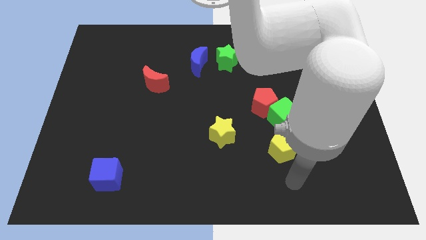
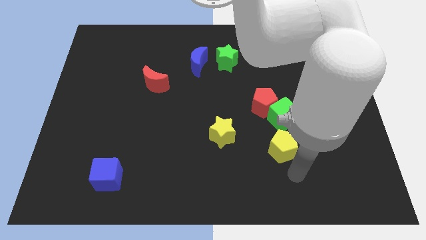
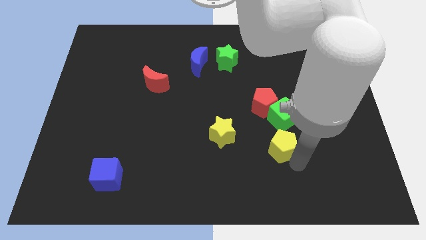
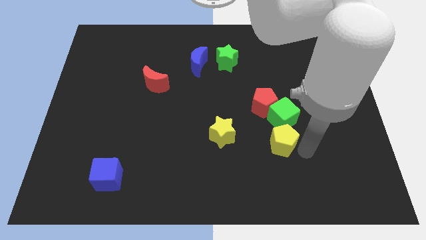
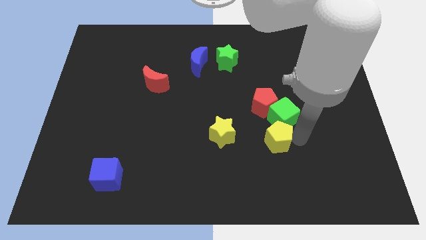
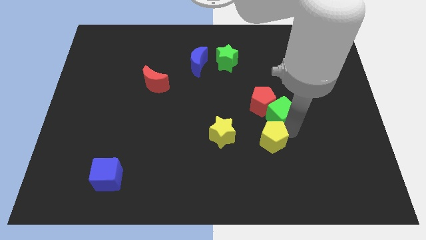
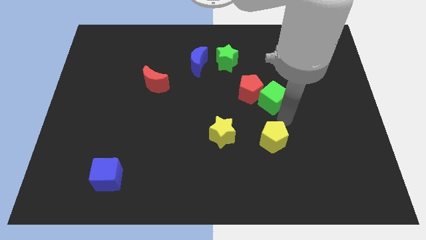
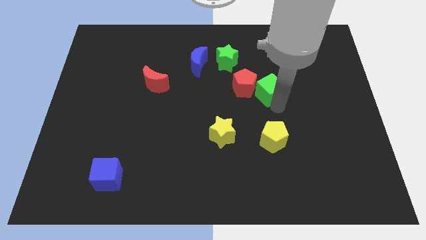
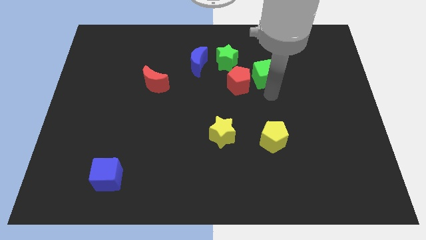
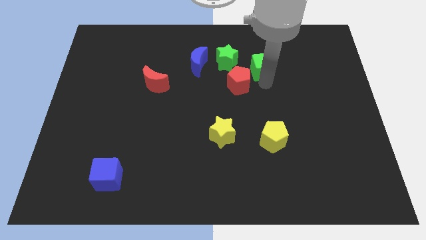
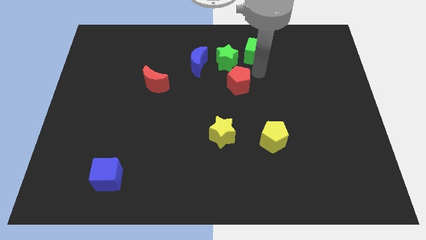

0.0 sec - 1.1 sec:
move the red pentagon away from the green cube

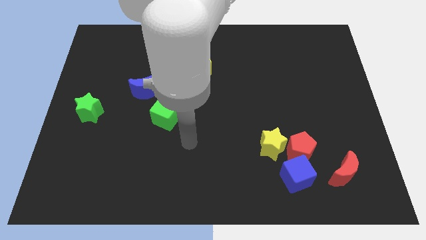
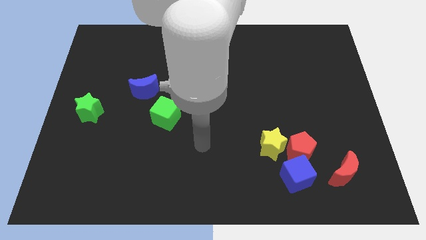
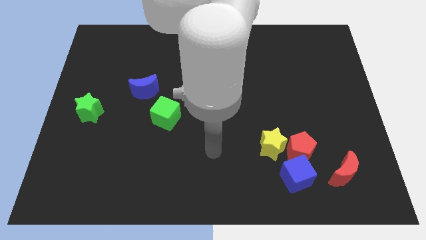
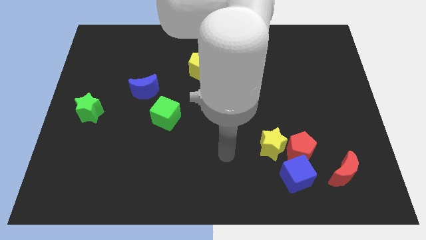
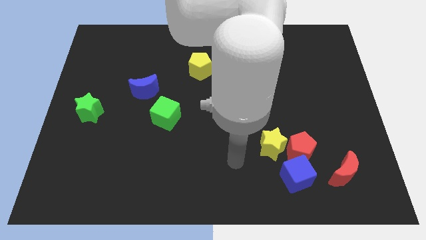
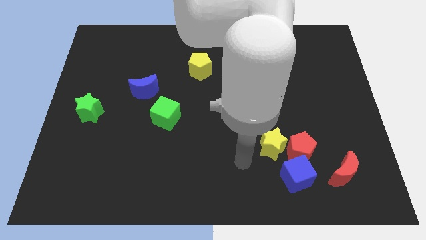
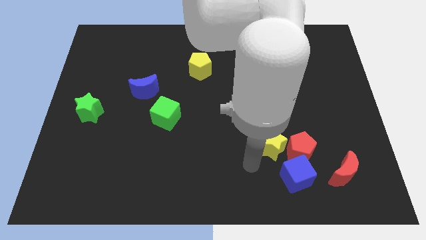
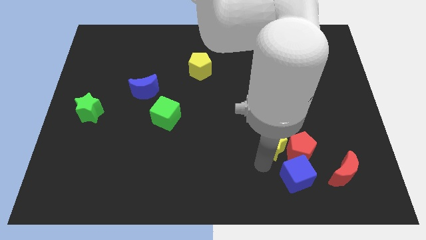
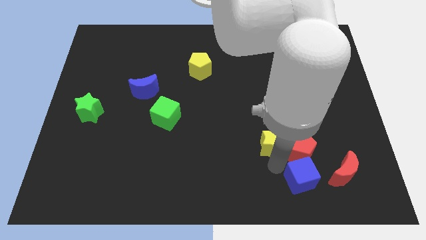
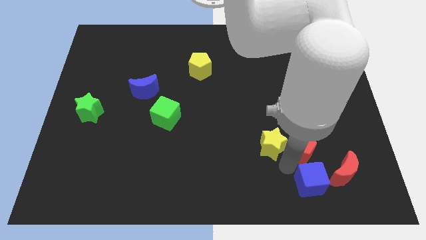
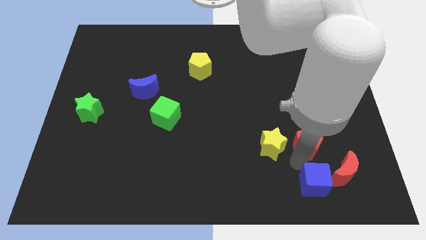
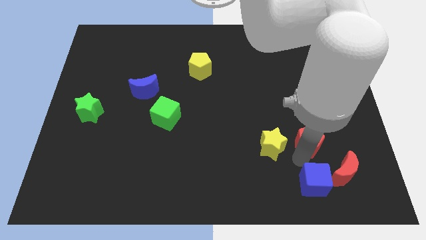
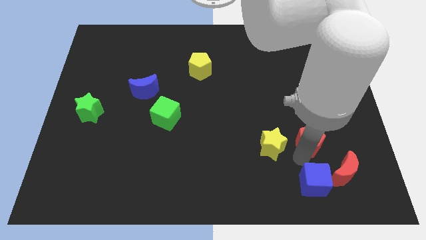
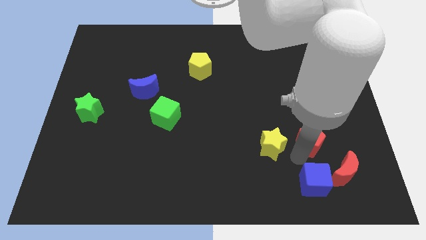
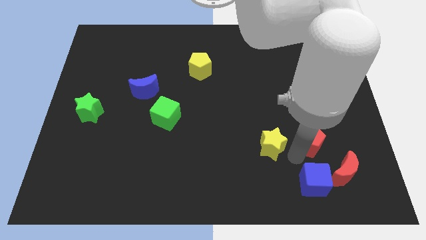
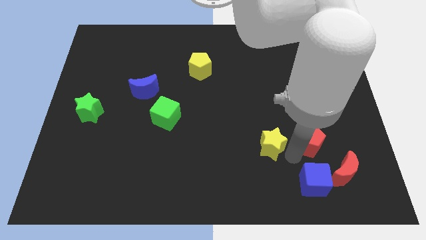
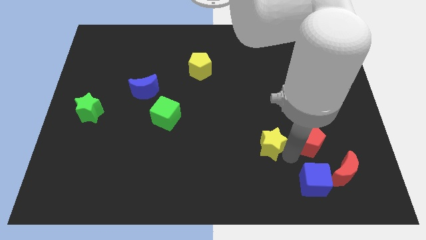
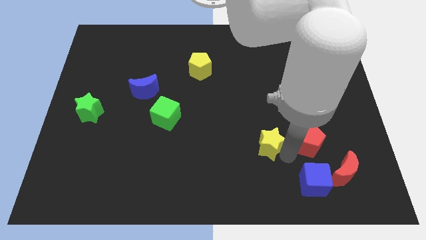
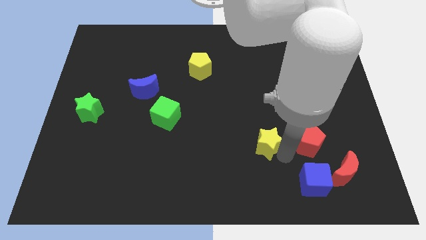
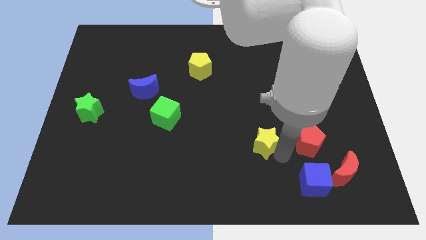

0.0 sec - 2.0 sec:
pull the yellow star apart from the red pentagon and blue cube

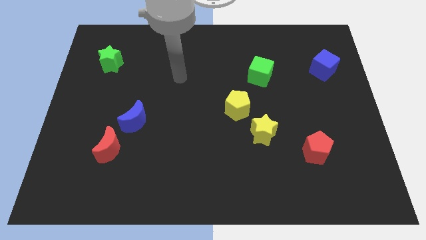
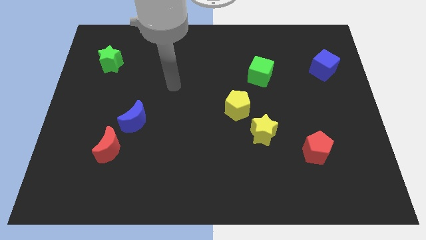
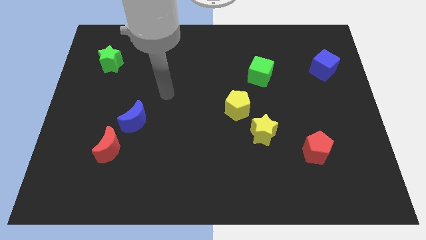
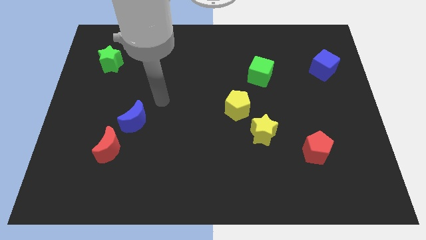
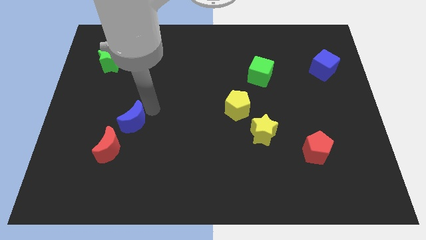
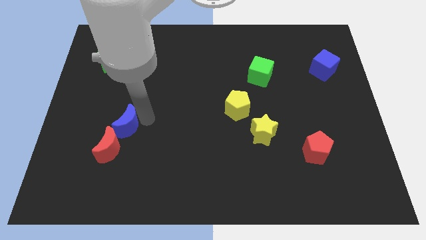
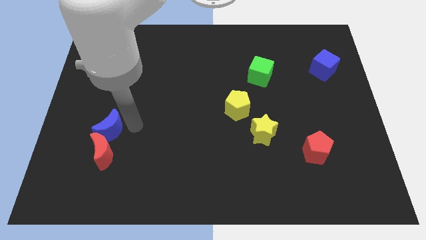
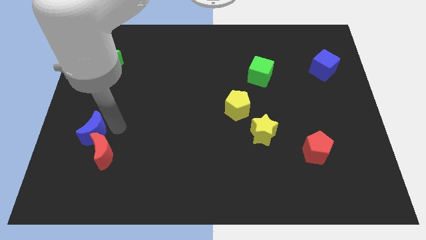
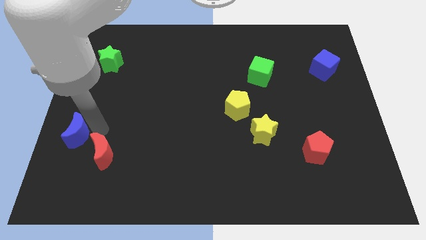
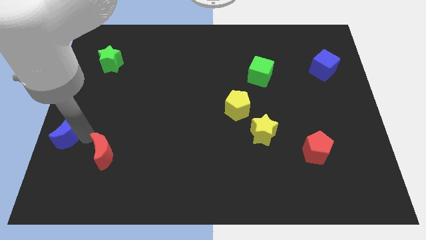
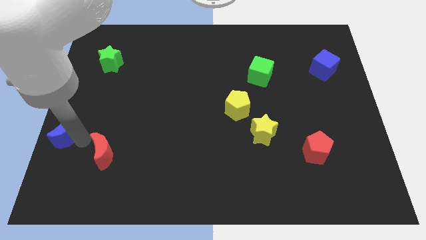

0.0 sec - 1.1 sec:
separate the red moon from the blue moon

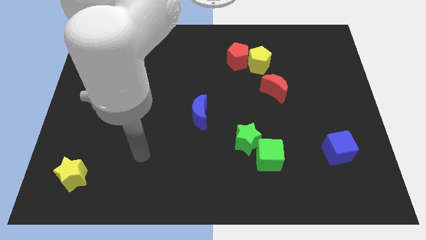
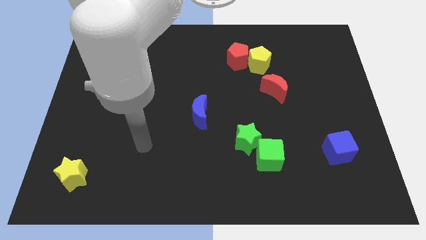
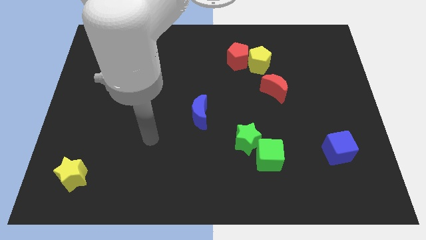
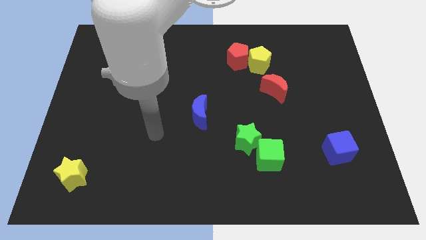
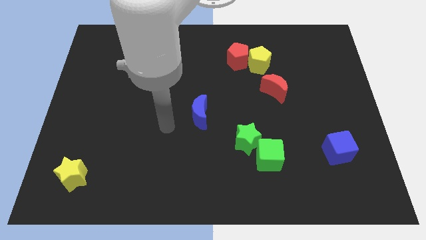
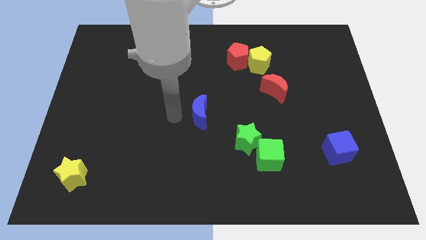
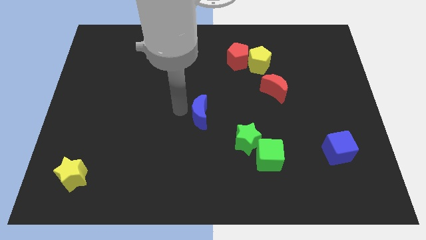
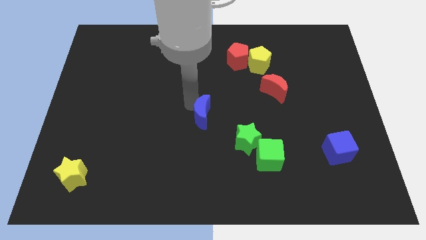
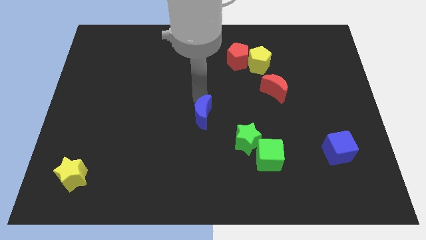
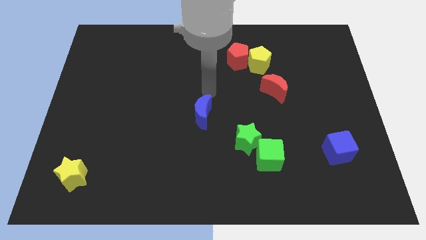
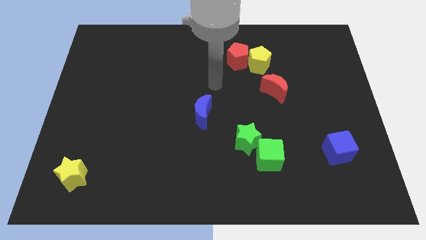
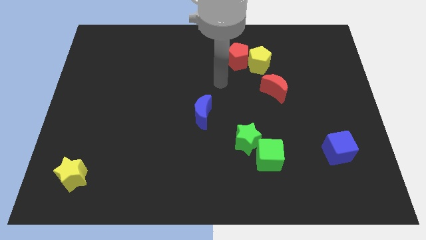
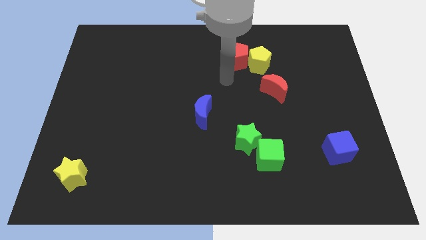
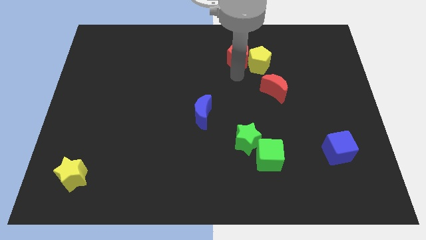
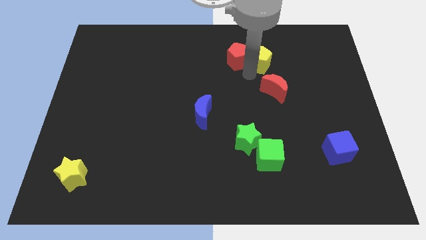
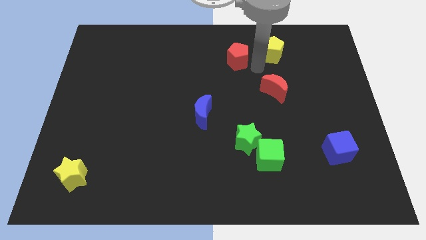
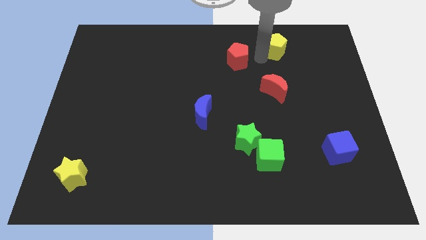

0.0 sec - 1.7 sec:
move the red pentagon away from the yellow pentagon

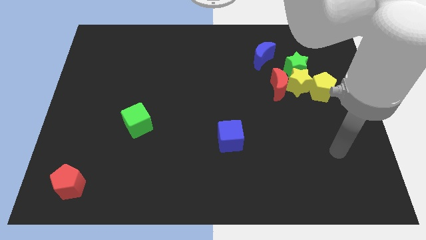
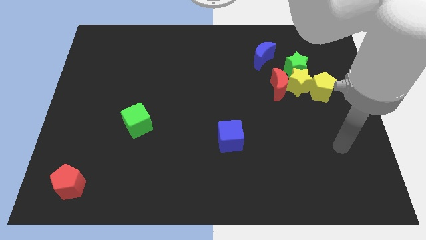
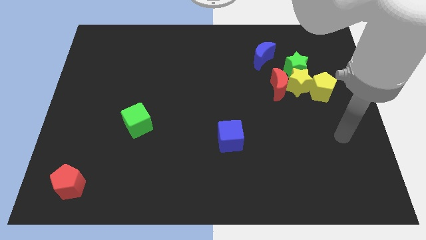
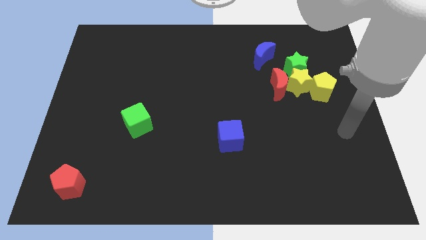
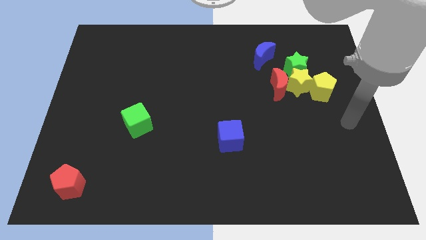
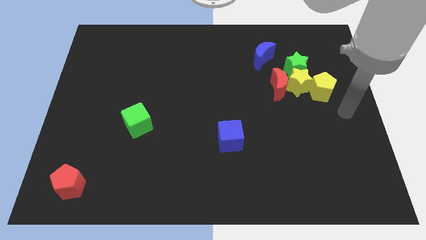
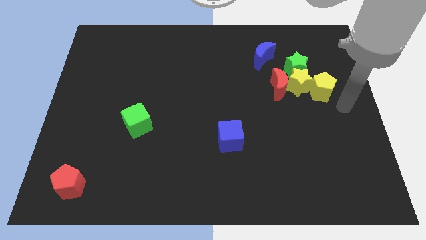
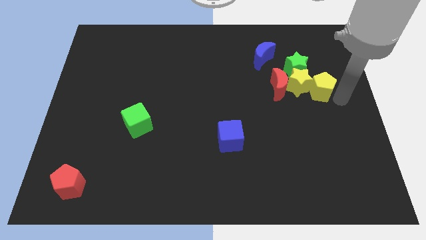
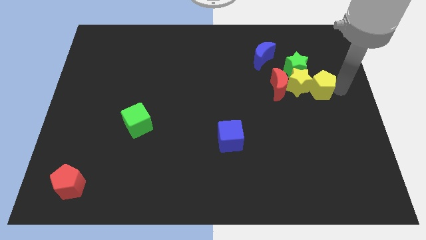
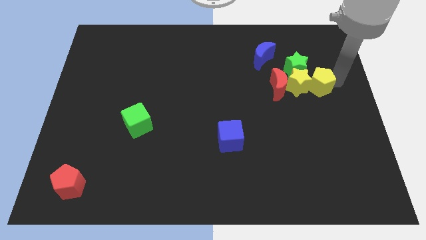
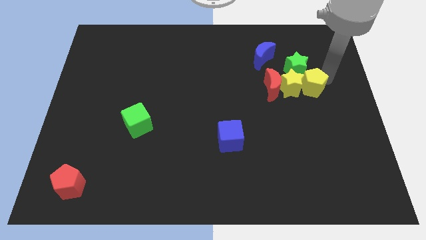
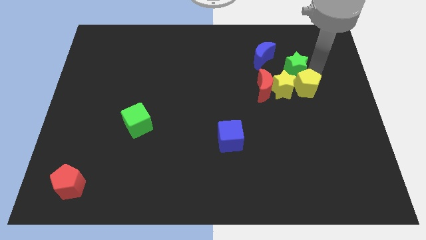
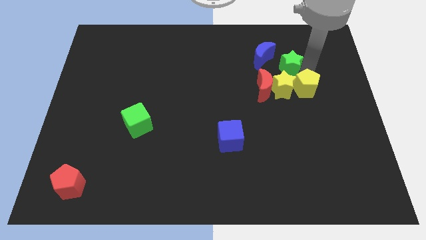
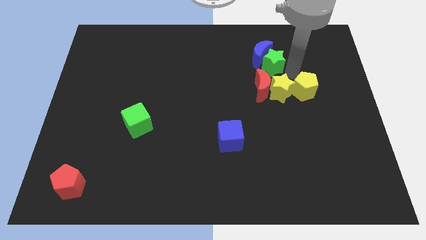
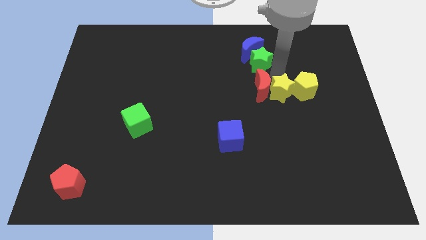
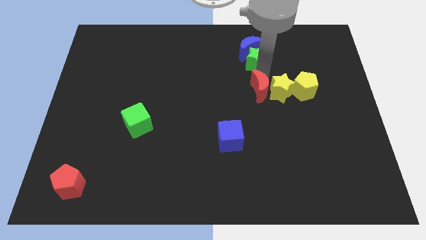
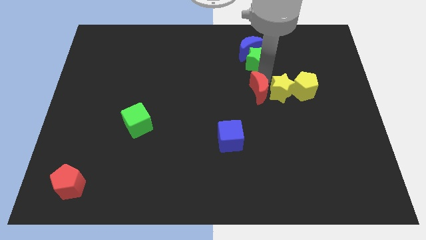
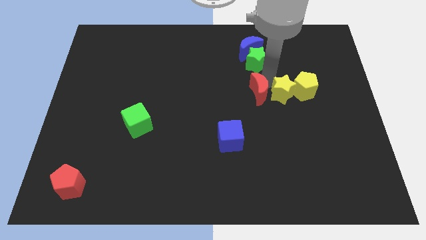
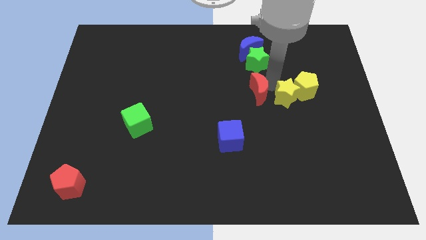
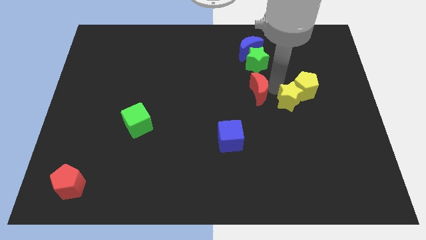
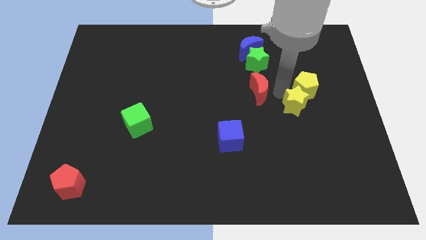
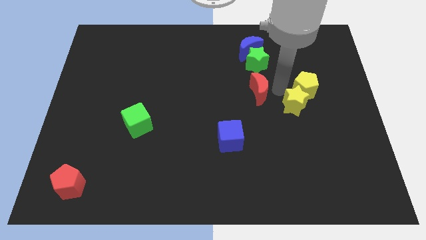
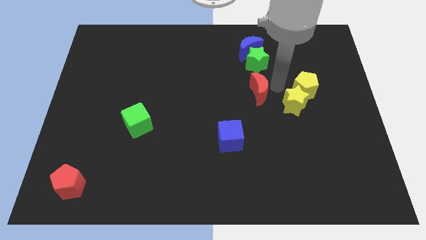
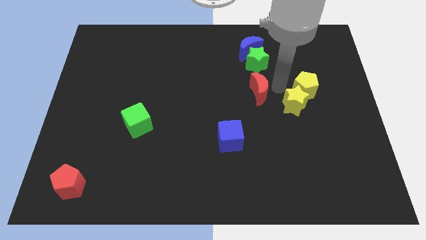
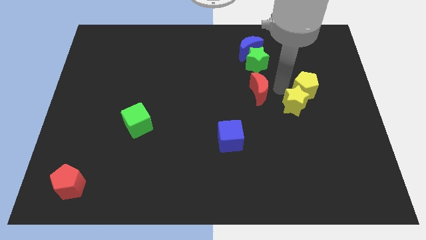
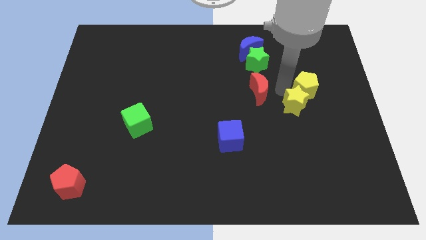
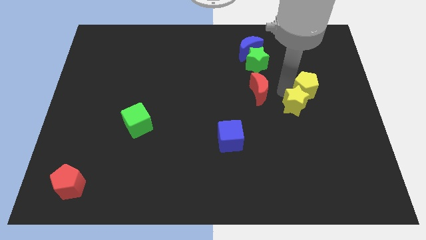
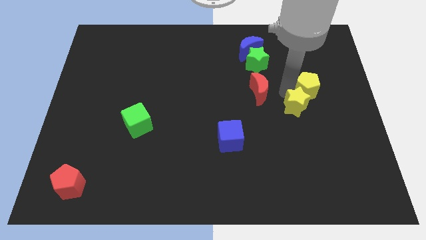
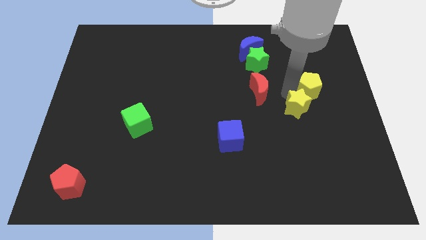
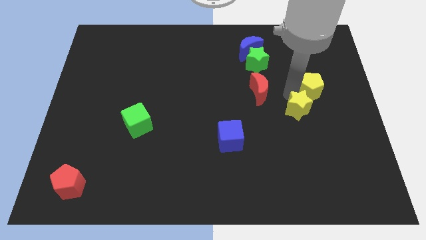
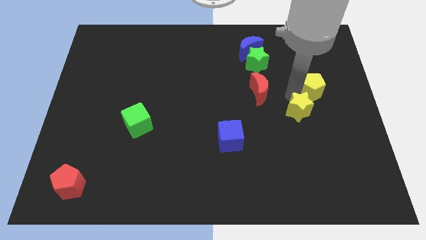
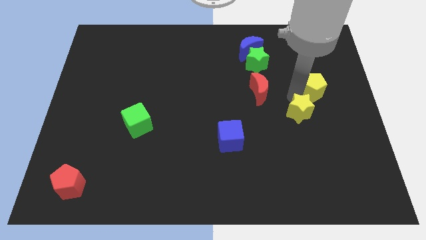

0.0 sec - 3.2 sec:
pull the yellow star apart from the clump

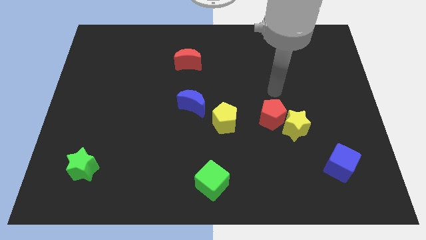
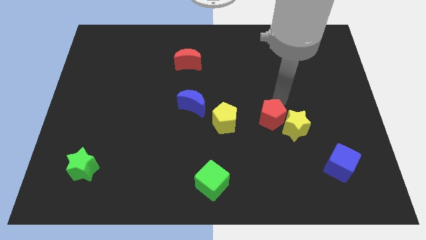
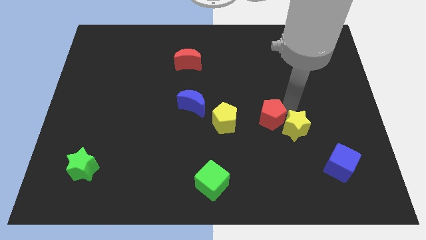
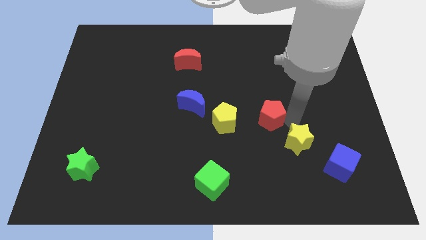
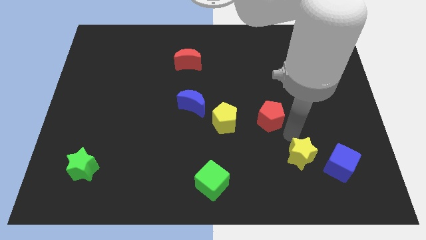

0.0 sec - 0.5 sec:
pull the red pentagon apart from the yellow star
